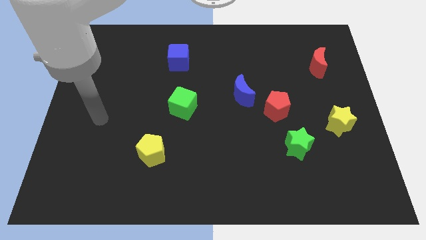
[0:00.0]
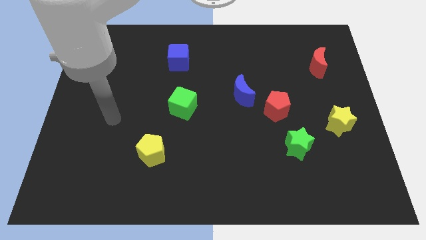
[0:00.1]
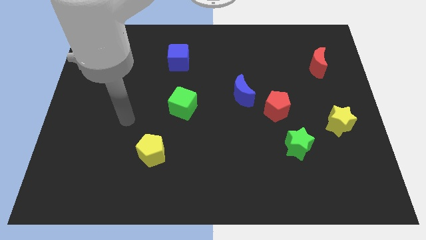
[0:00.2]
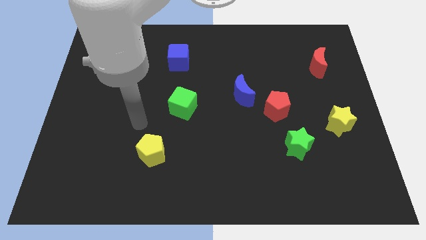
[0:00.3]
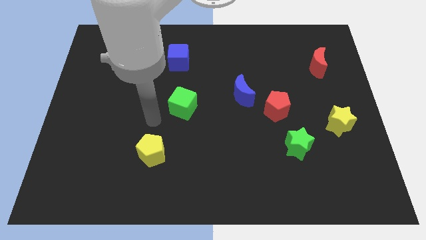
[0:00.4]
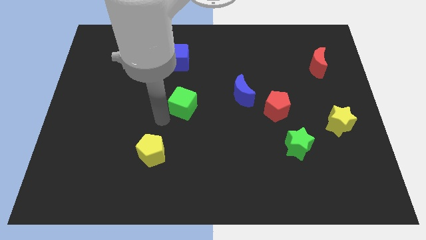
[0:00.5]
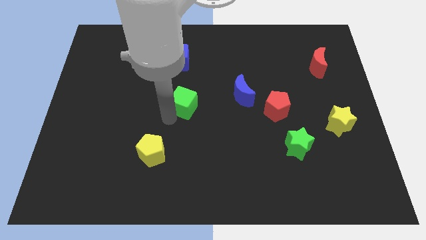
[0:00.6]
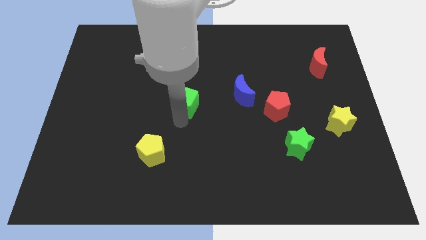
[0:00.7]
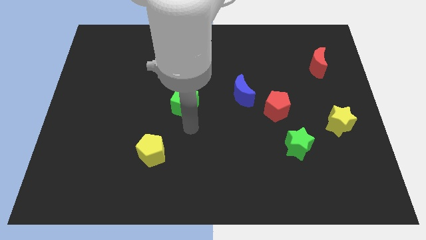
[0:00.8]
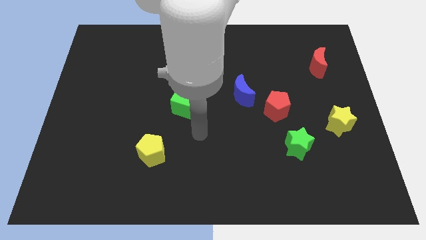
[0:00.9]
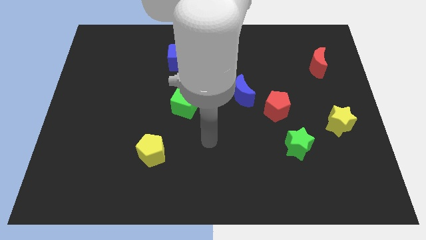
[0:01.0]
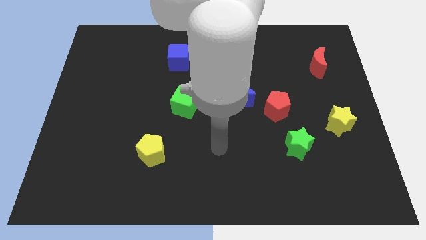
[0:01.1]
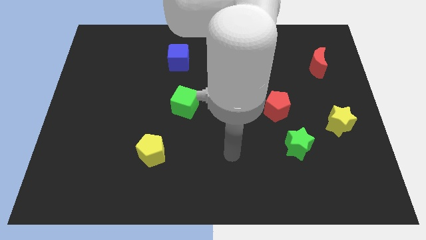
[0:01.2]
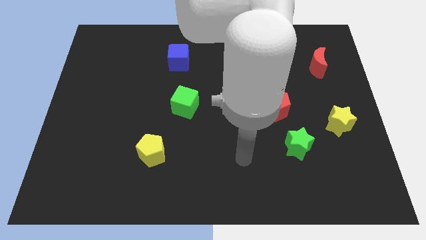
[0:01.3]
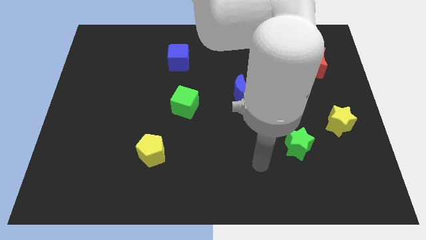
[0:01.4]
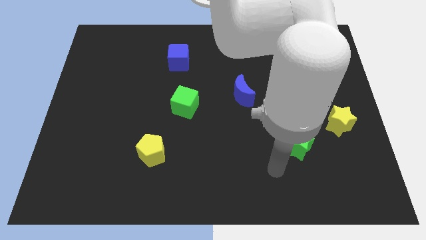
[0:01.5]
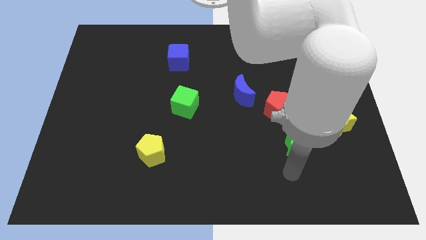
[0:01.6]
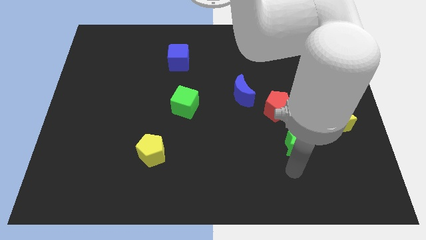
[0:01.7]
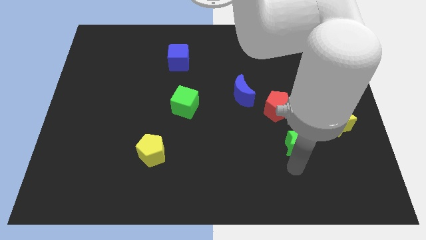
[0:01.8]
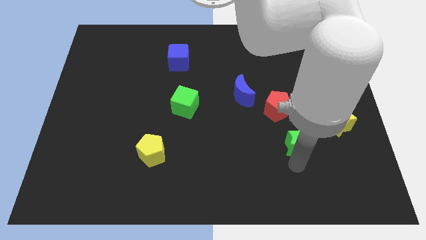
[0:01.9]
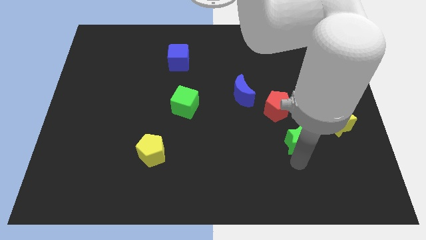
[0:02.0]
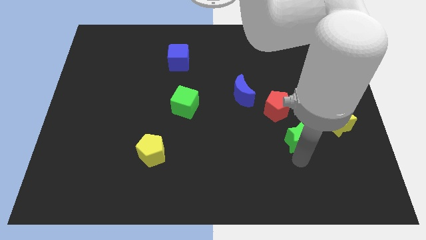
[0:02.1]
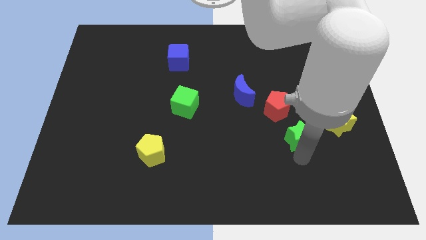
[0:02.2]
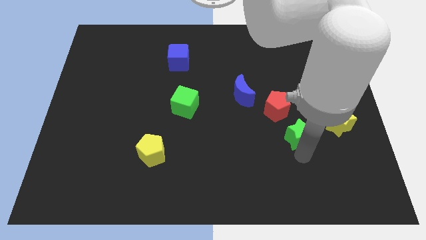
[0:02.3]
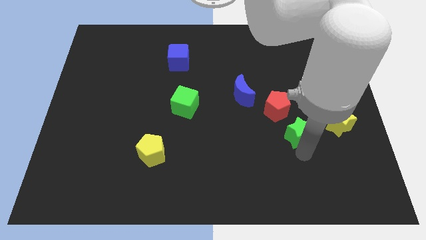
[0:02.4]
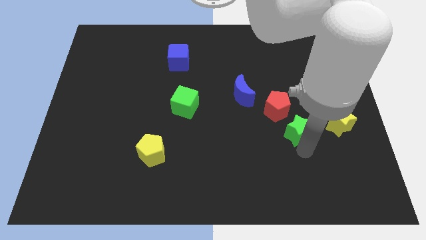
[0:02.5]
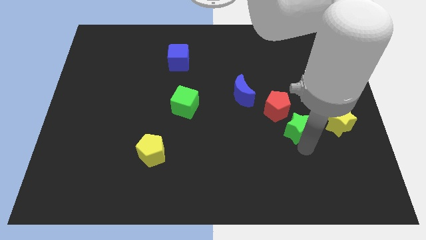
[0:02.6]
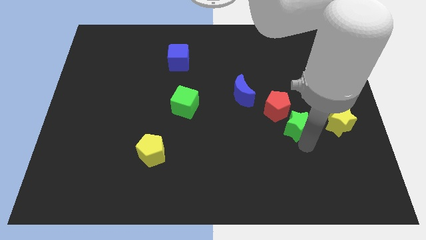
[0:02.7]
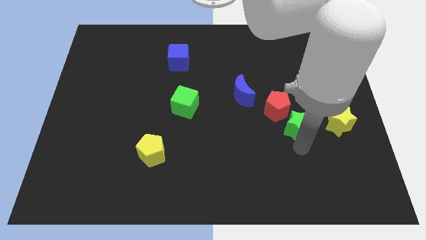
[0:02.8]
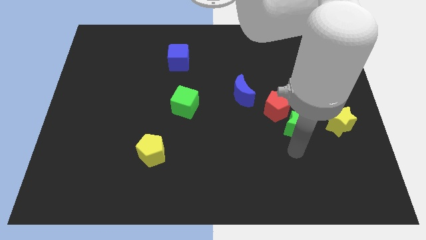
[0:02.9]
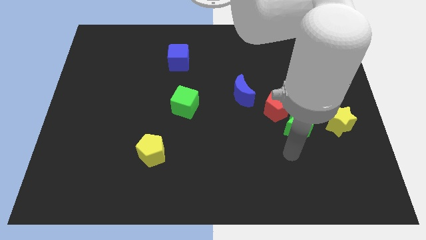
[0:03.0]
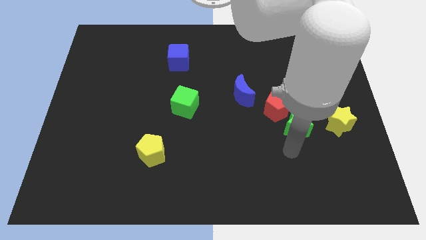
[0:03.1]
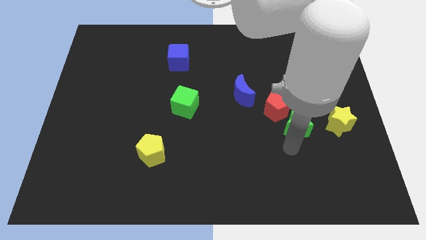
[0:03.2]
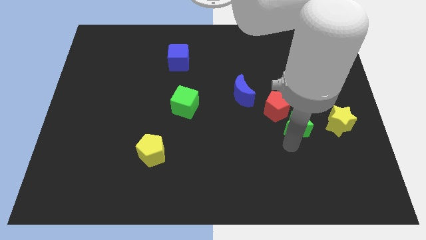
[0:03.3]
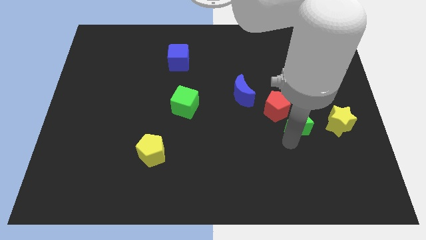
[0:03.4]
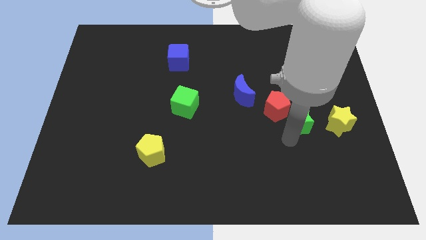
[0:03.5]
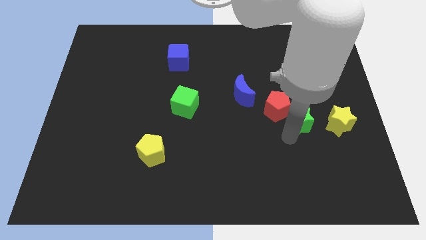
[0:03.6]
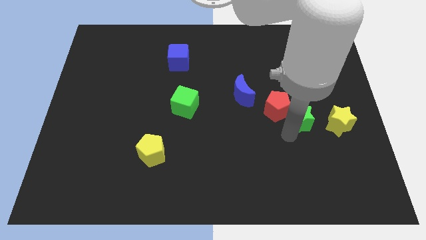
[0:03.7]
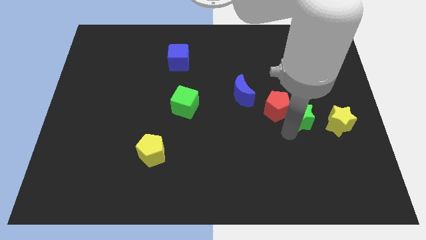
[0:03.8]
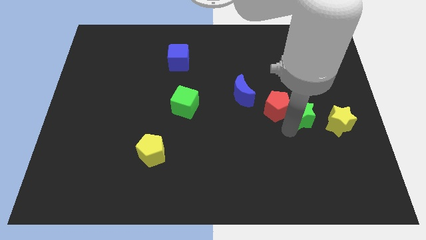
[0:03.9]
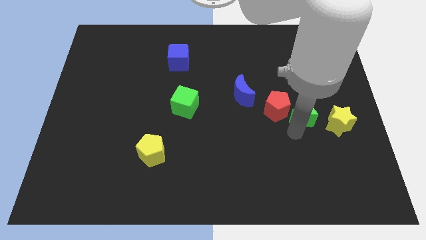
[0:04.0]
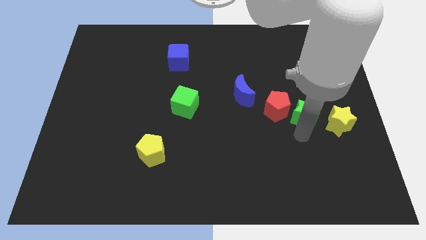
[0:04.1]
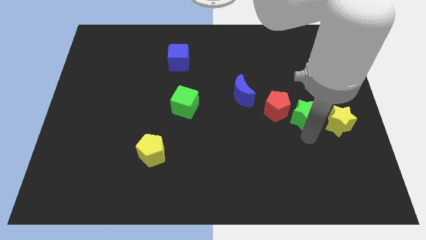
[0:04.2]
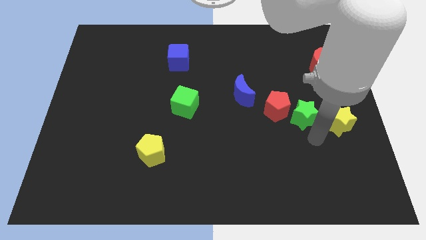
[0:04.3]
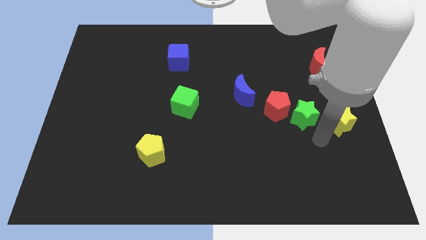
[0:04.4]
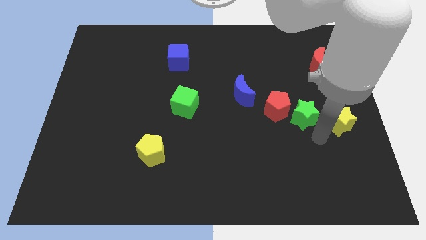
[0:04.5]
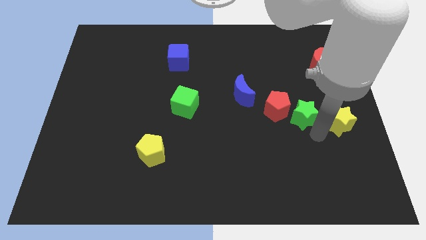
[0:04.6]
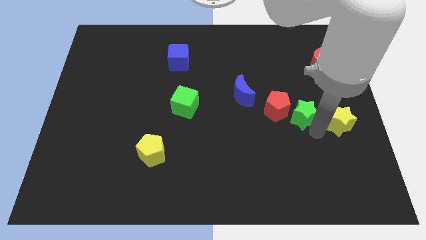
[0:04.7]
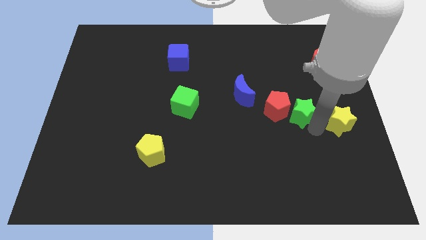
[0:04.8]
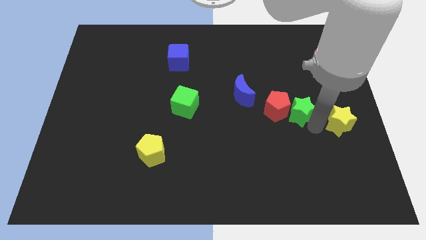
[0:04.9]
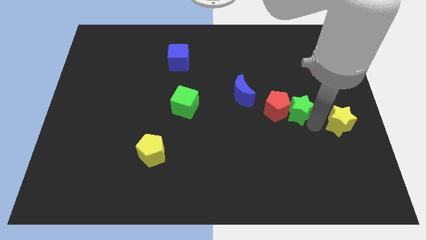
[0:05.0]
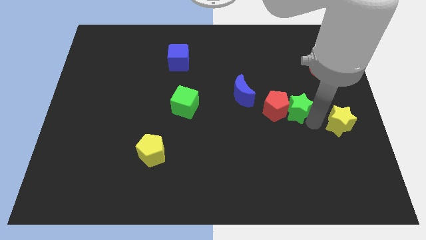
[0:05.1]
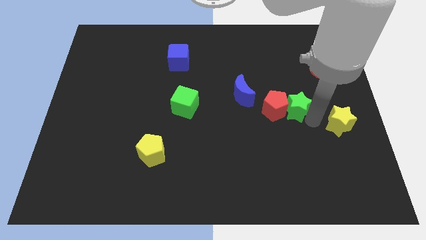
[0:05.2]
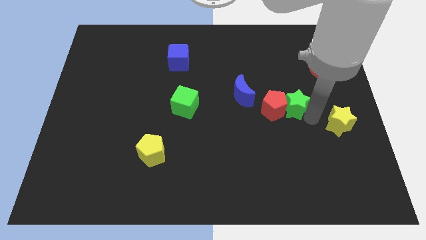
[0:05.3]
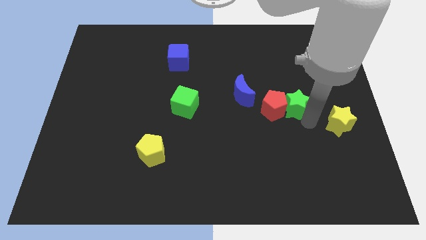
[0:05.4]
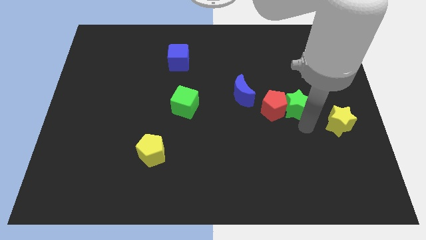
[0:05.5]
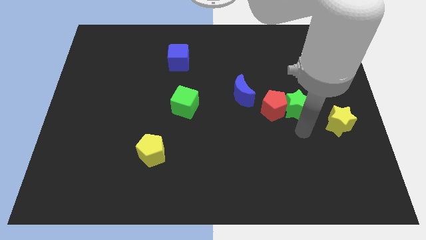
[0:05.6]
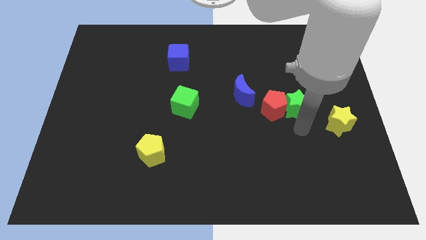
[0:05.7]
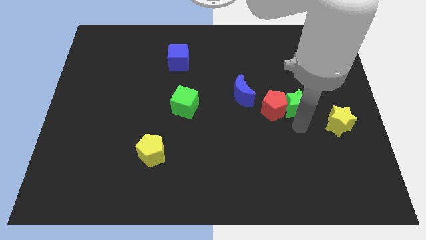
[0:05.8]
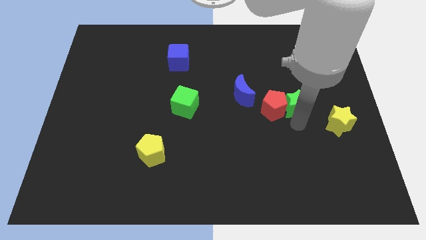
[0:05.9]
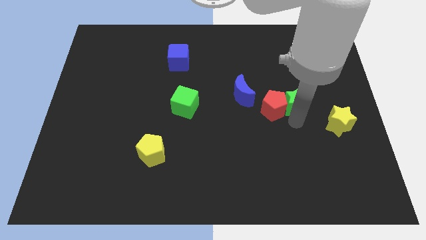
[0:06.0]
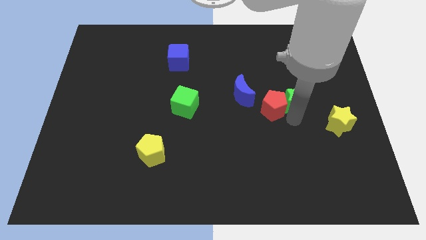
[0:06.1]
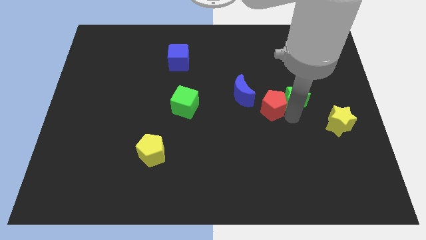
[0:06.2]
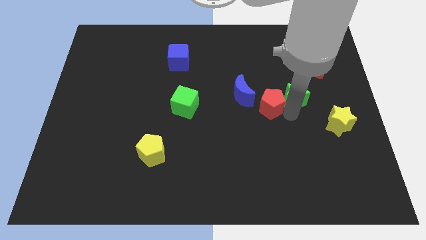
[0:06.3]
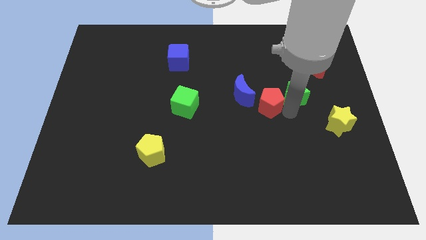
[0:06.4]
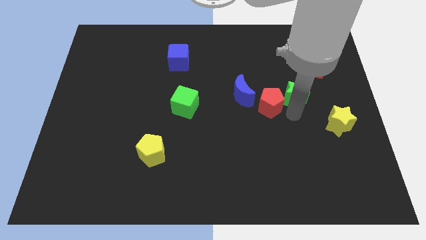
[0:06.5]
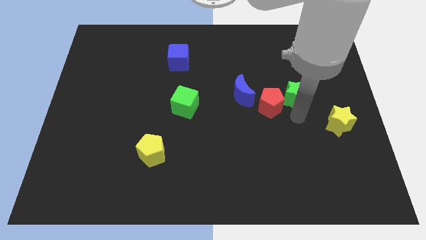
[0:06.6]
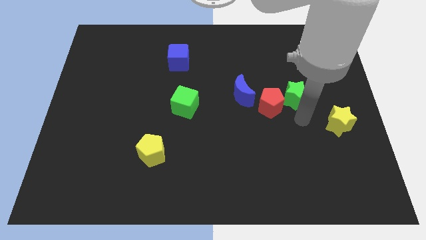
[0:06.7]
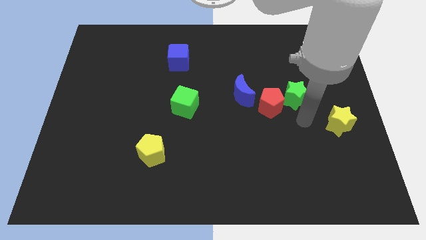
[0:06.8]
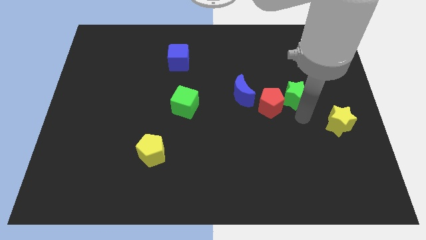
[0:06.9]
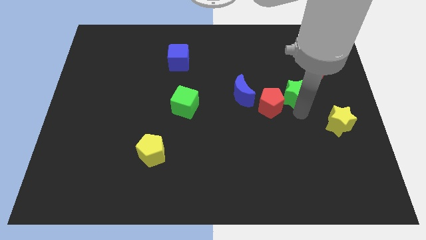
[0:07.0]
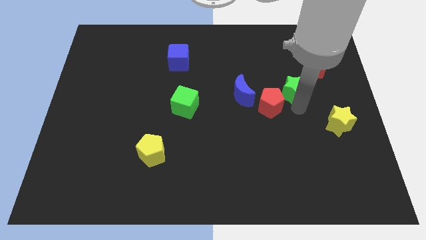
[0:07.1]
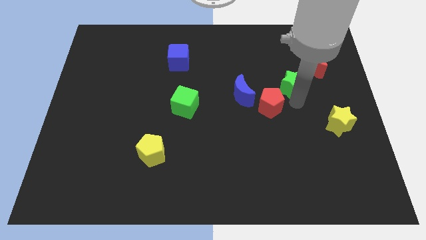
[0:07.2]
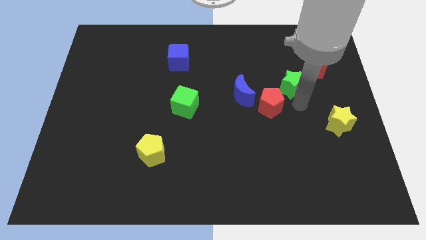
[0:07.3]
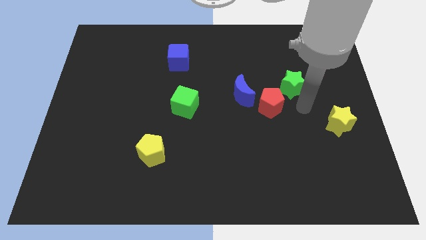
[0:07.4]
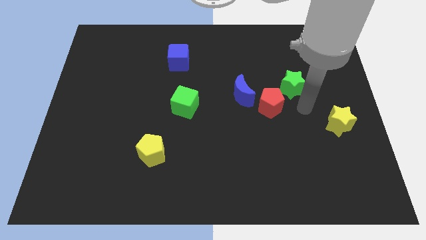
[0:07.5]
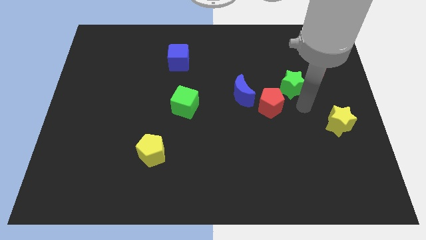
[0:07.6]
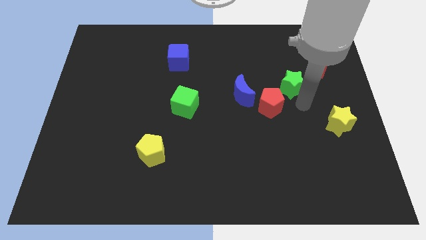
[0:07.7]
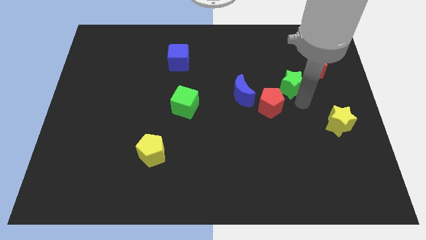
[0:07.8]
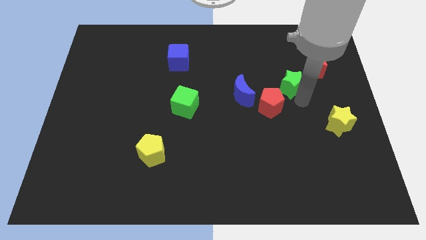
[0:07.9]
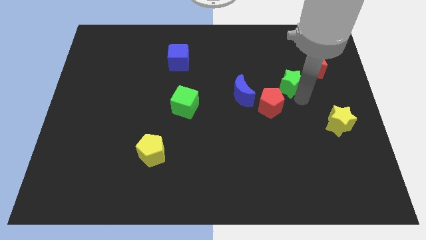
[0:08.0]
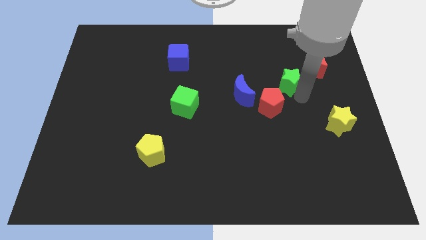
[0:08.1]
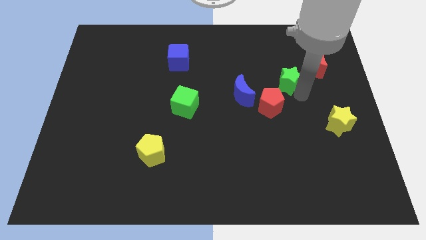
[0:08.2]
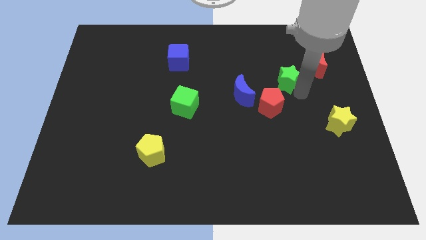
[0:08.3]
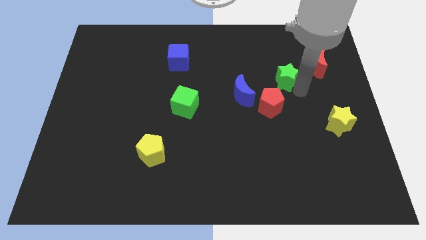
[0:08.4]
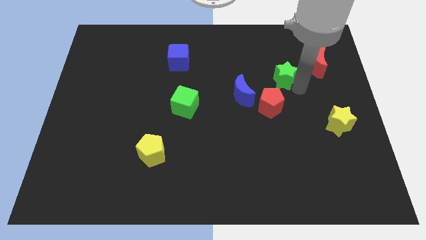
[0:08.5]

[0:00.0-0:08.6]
put the green star to the left side of the red moon
